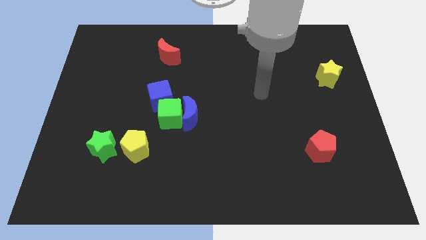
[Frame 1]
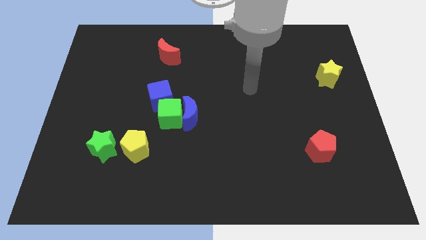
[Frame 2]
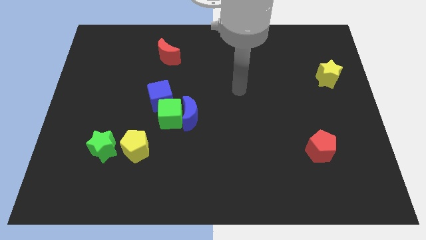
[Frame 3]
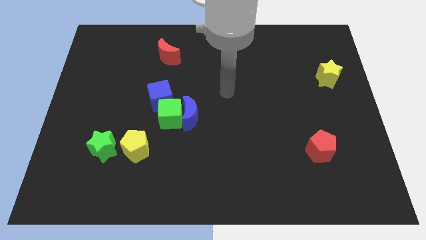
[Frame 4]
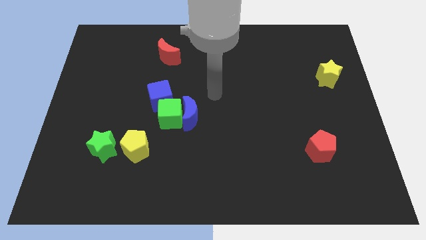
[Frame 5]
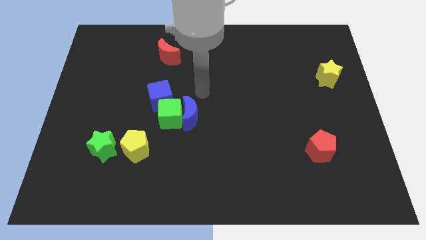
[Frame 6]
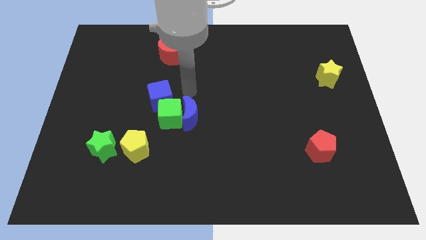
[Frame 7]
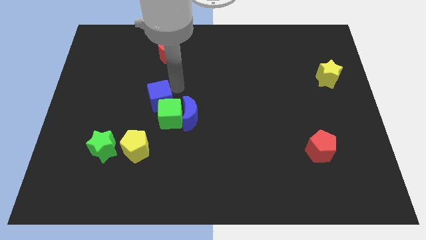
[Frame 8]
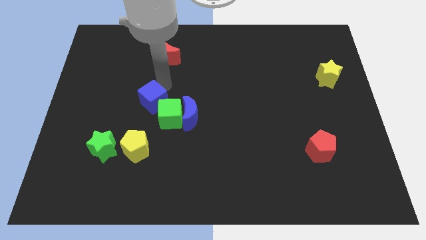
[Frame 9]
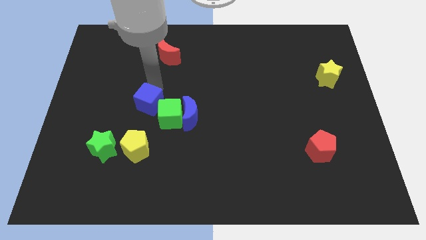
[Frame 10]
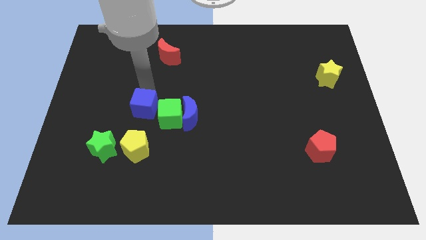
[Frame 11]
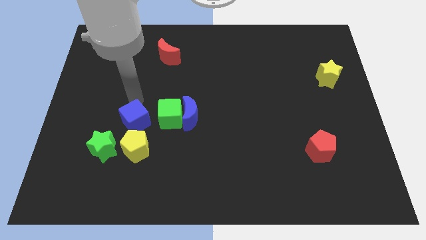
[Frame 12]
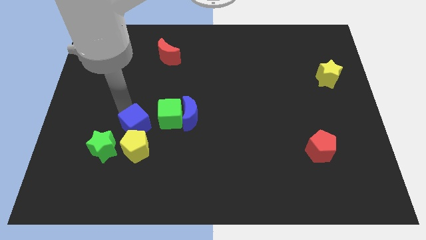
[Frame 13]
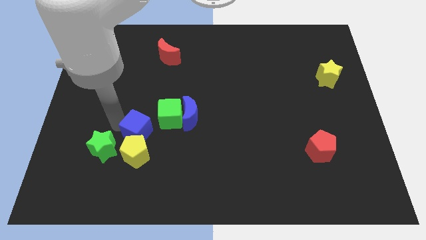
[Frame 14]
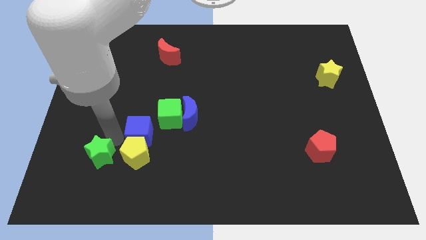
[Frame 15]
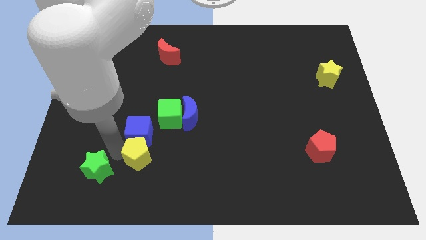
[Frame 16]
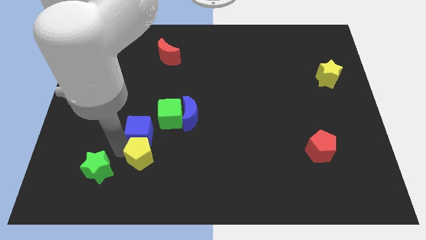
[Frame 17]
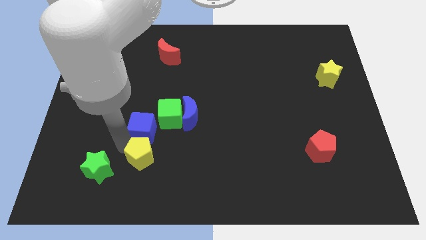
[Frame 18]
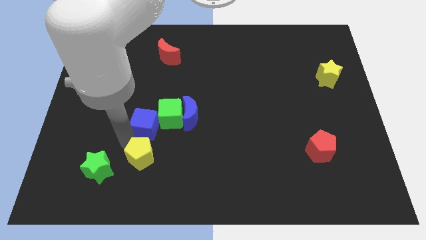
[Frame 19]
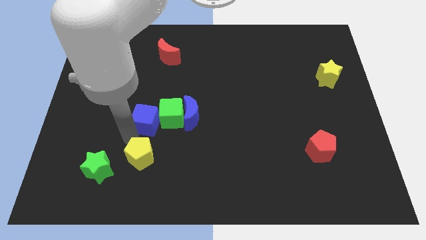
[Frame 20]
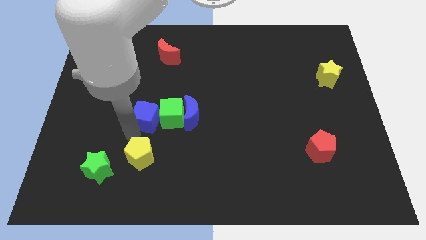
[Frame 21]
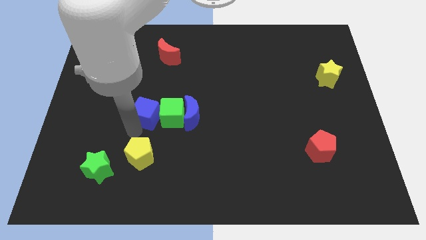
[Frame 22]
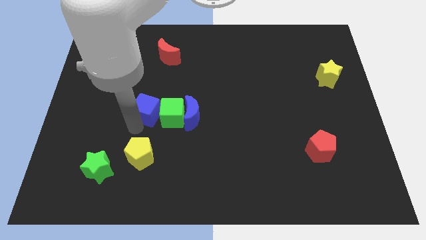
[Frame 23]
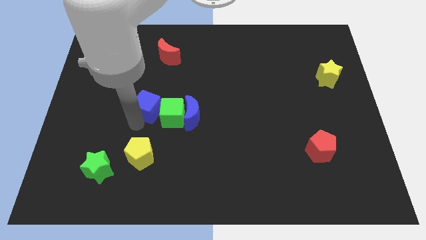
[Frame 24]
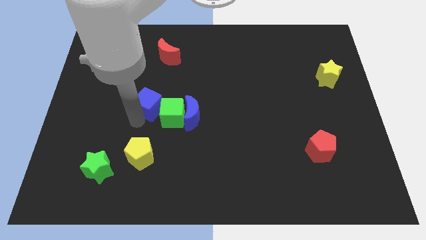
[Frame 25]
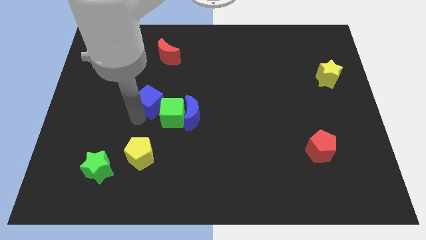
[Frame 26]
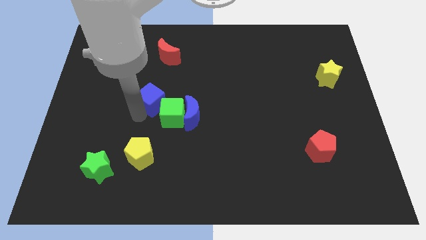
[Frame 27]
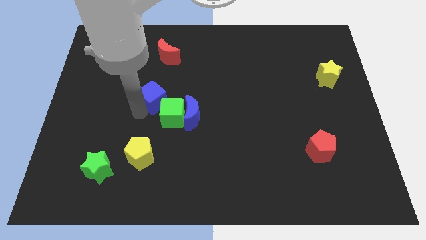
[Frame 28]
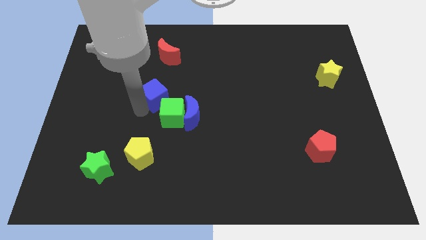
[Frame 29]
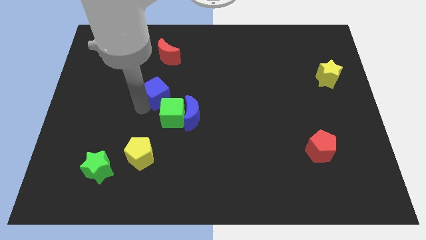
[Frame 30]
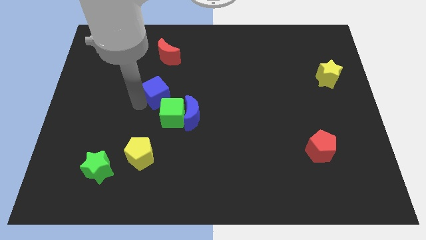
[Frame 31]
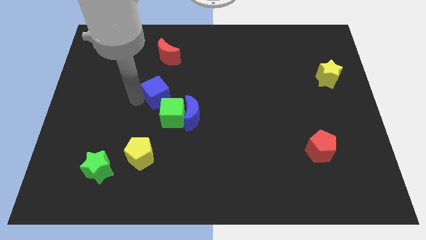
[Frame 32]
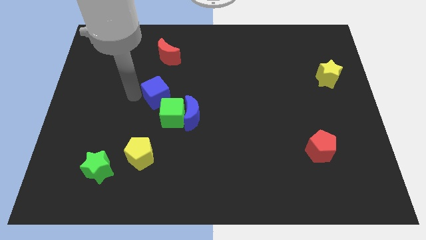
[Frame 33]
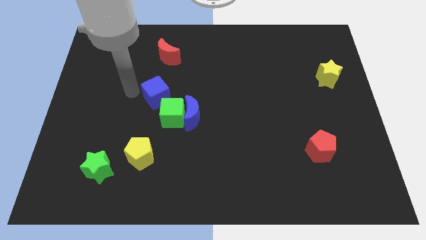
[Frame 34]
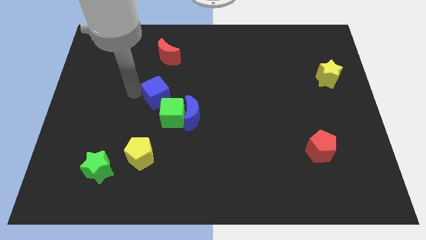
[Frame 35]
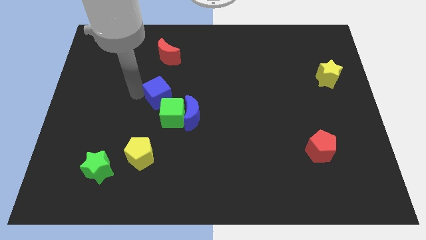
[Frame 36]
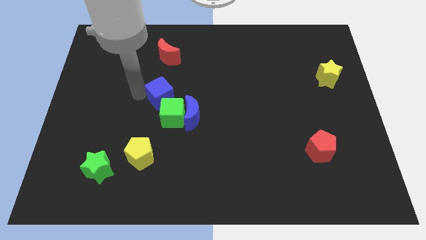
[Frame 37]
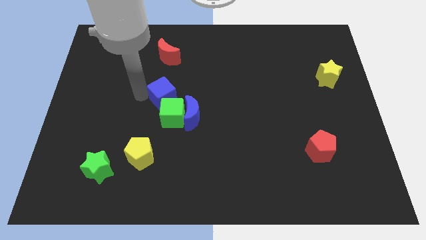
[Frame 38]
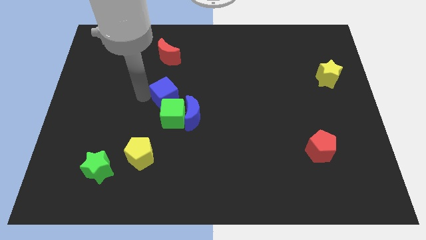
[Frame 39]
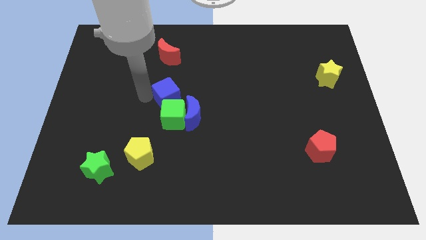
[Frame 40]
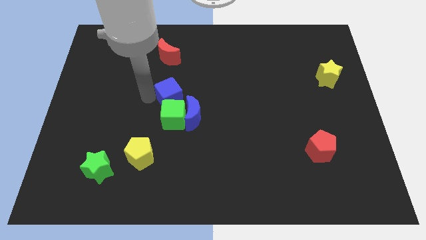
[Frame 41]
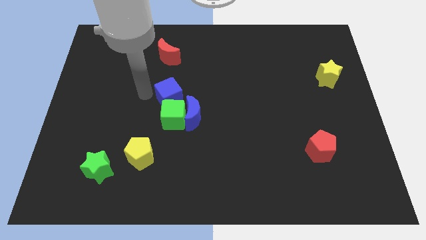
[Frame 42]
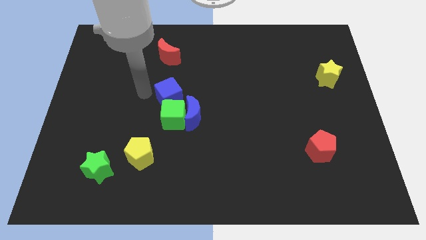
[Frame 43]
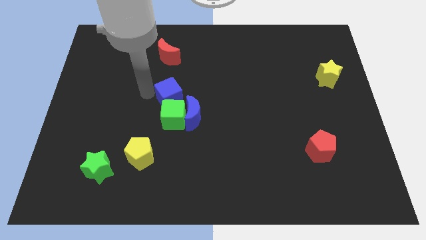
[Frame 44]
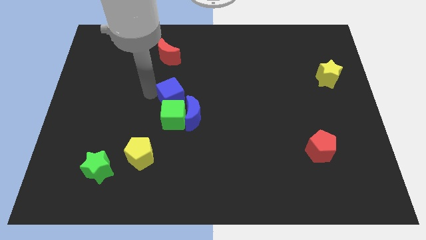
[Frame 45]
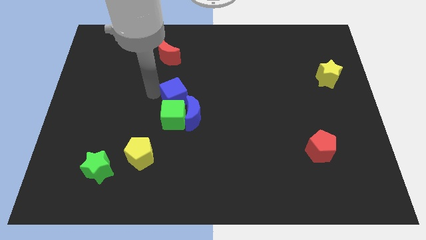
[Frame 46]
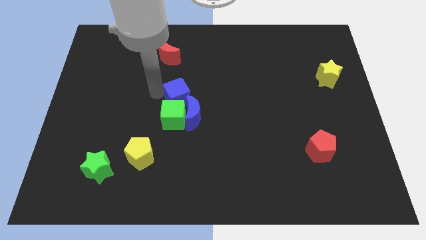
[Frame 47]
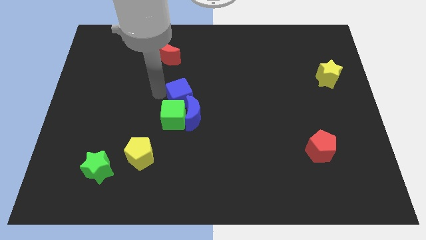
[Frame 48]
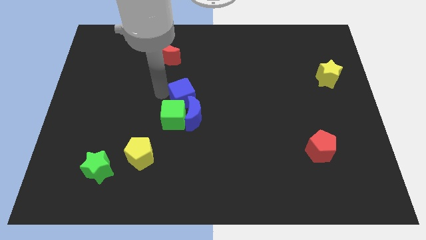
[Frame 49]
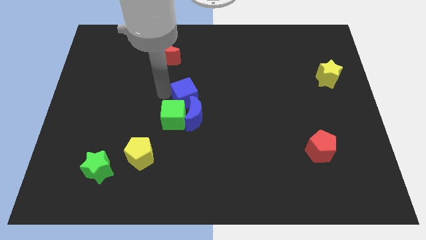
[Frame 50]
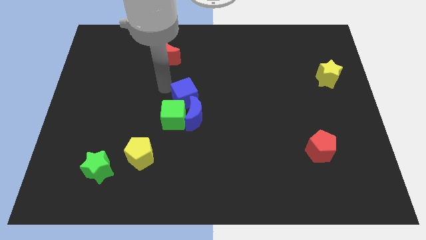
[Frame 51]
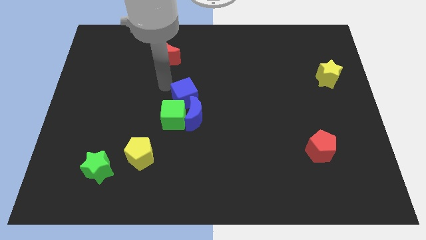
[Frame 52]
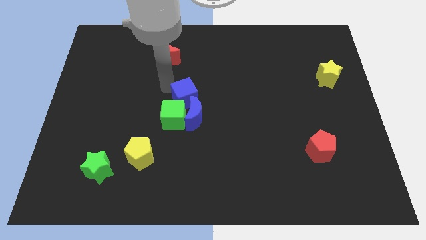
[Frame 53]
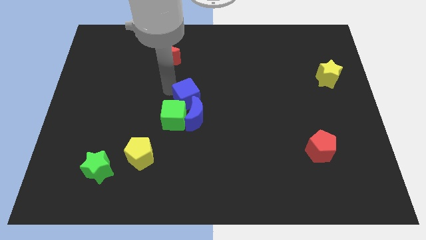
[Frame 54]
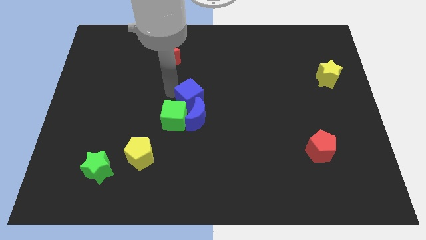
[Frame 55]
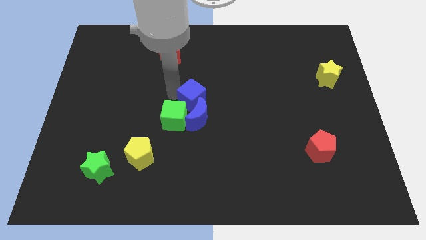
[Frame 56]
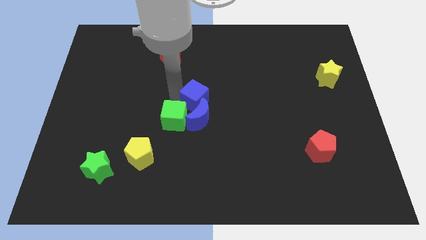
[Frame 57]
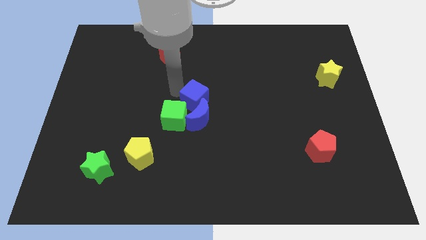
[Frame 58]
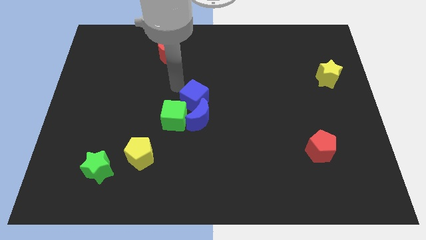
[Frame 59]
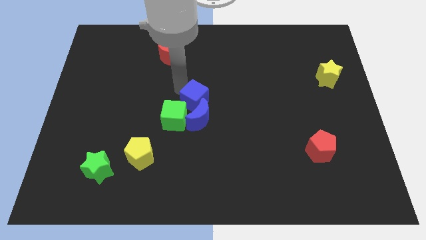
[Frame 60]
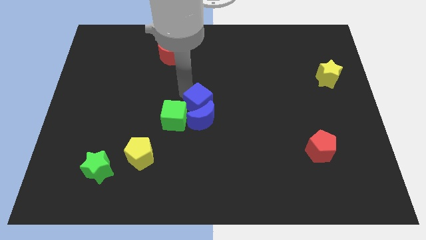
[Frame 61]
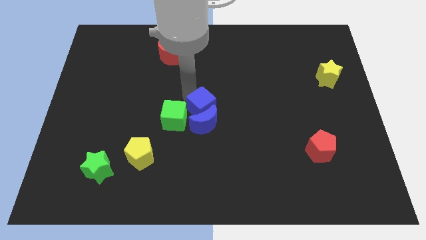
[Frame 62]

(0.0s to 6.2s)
slide the blue cube a bit downwards and then to the right

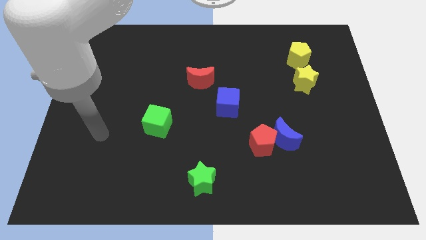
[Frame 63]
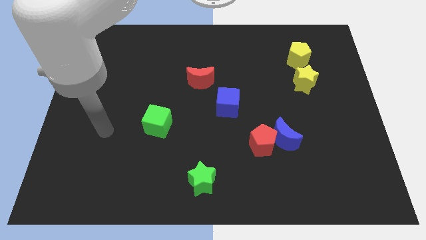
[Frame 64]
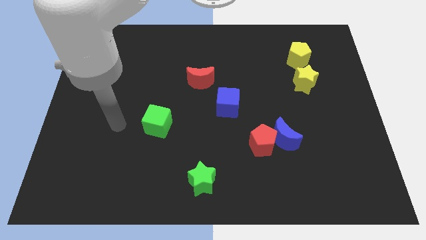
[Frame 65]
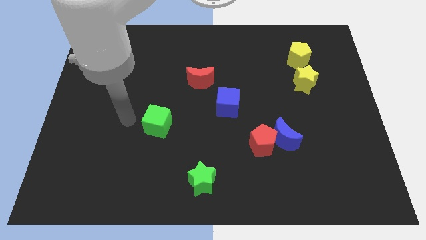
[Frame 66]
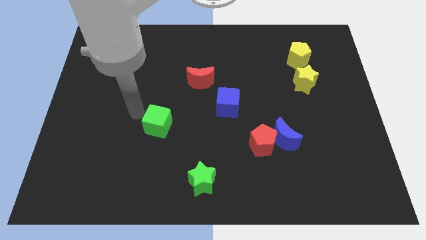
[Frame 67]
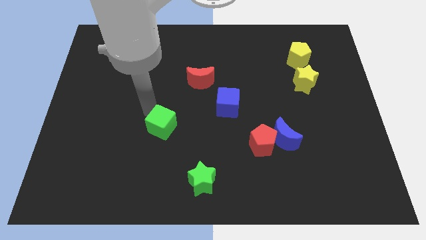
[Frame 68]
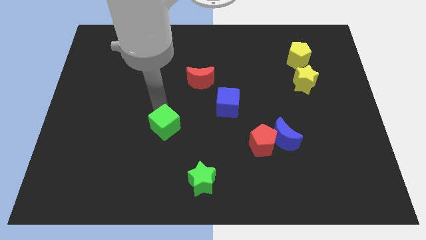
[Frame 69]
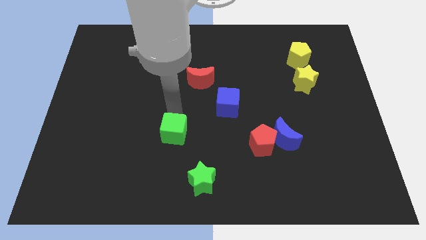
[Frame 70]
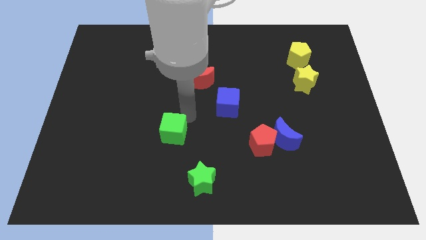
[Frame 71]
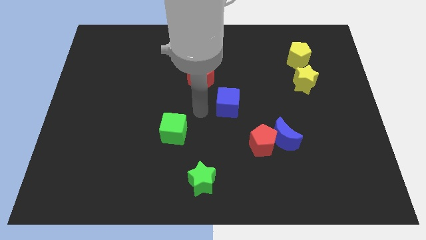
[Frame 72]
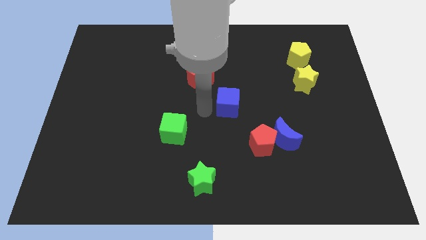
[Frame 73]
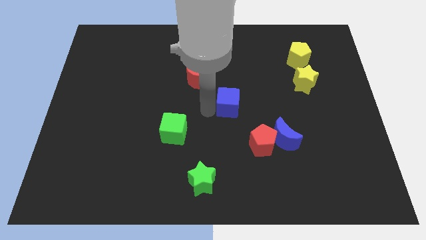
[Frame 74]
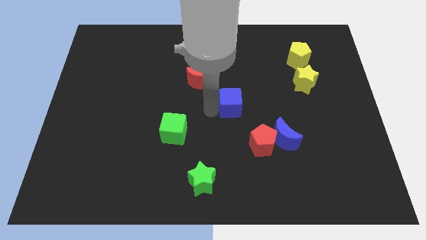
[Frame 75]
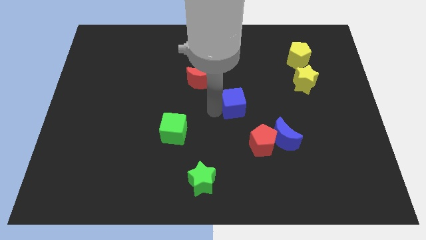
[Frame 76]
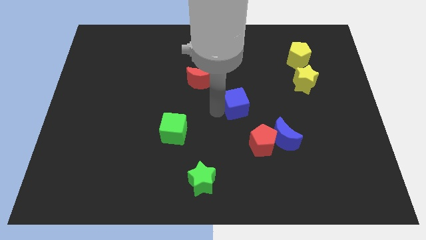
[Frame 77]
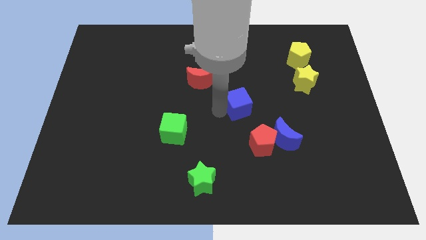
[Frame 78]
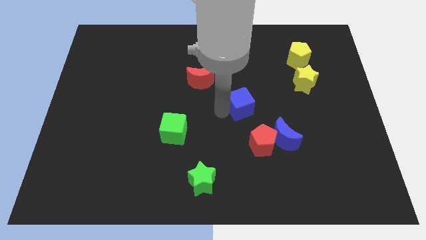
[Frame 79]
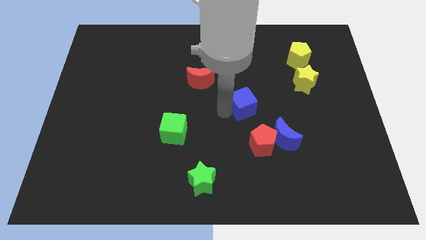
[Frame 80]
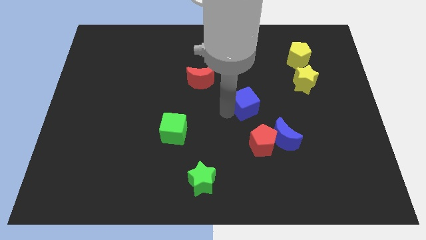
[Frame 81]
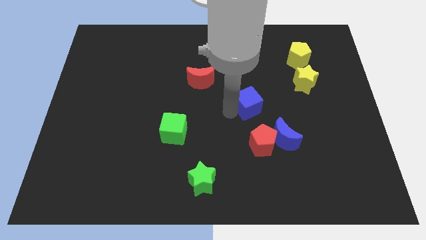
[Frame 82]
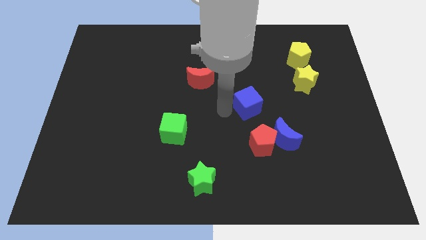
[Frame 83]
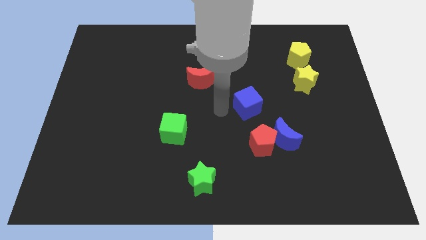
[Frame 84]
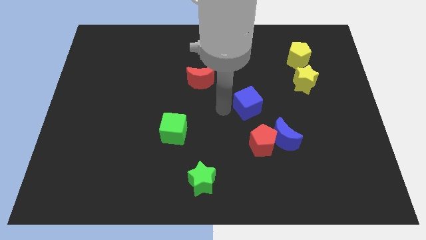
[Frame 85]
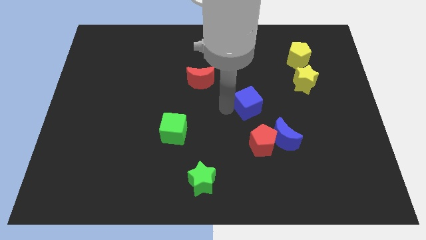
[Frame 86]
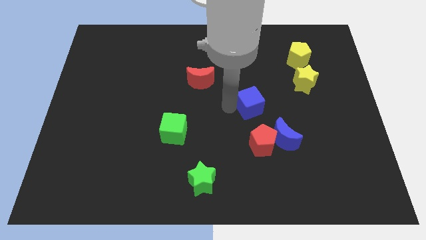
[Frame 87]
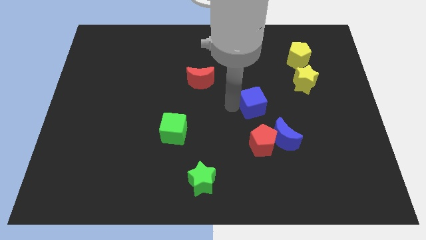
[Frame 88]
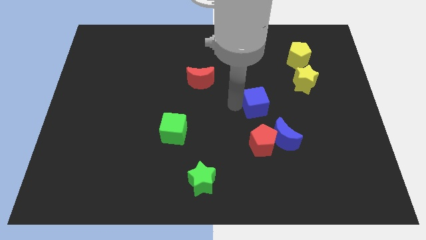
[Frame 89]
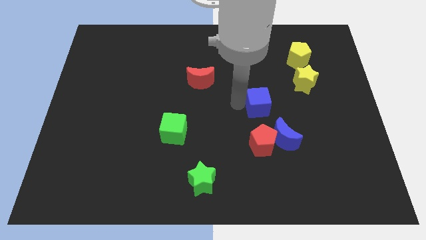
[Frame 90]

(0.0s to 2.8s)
move the blue cube somewhat to the right
